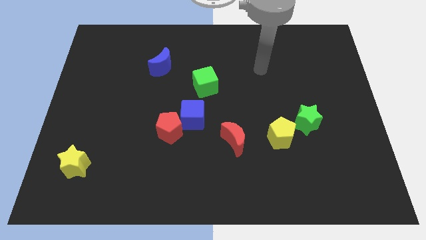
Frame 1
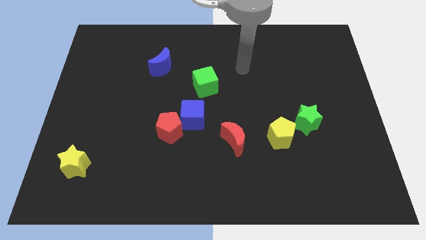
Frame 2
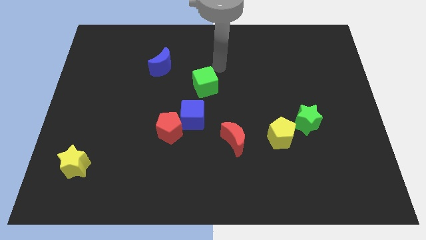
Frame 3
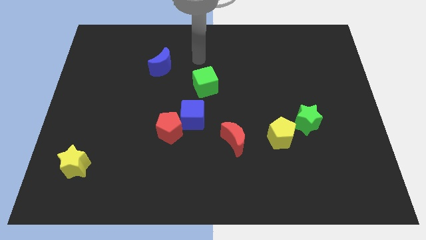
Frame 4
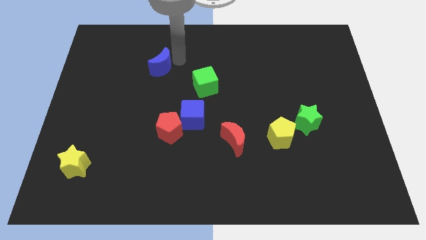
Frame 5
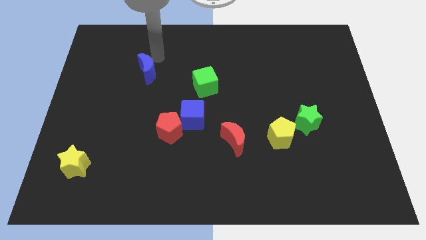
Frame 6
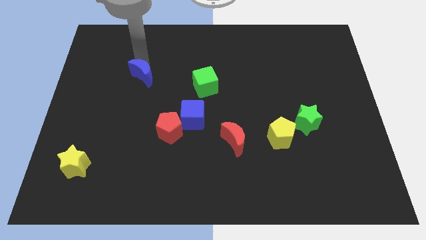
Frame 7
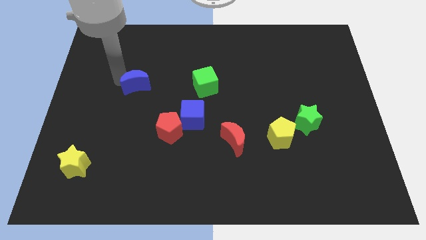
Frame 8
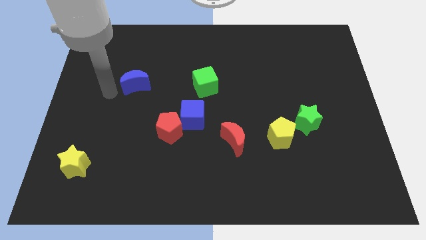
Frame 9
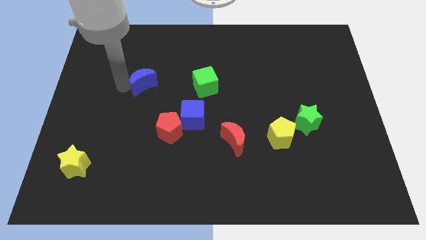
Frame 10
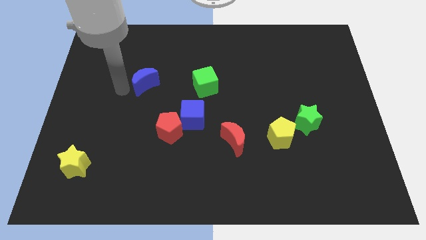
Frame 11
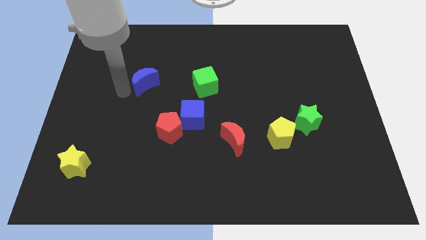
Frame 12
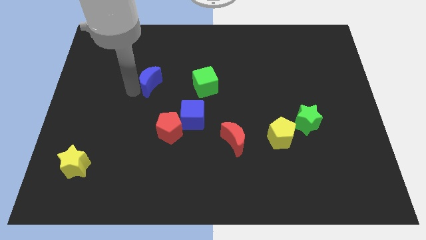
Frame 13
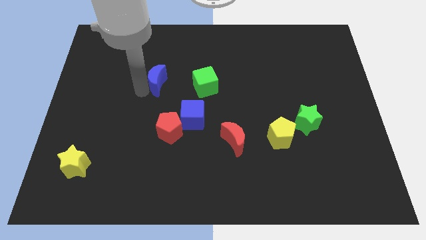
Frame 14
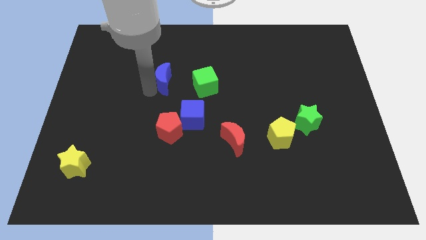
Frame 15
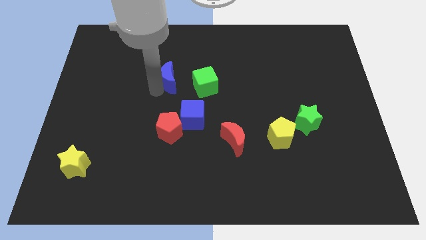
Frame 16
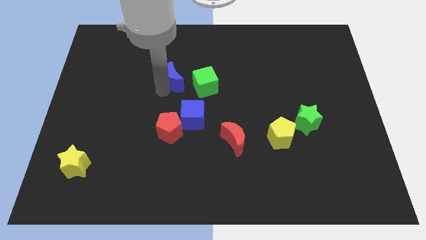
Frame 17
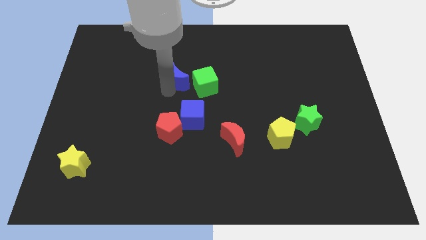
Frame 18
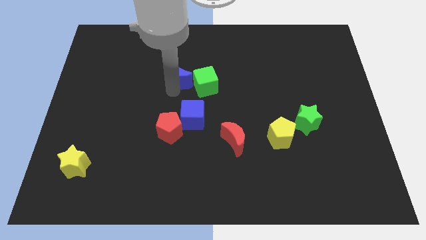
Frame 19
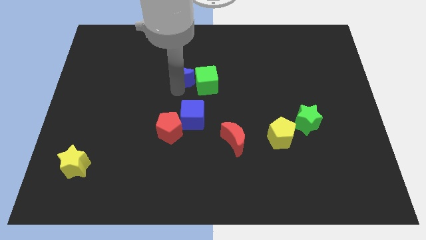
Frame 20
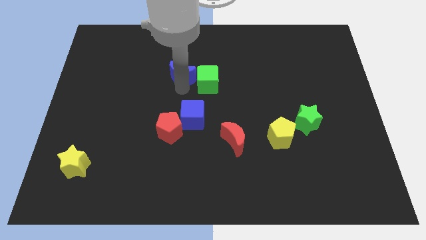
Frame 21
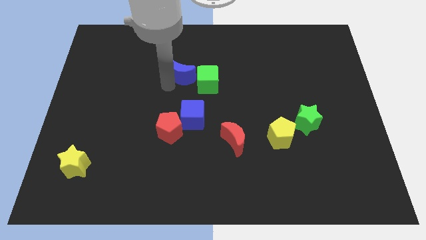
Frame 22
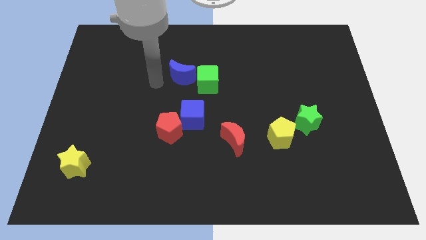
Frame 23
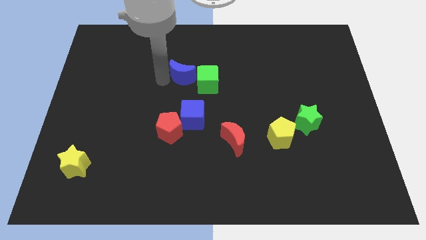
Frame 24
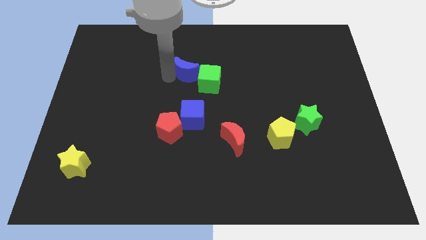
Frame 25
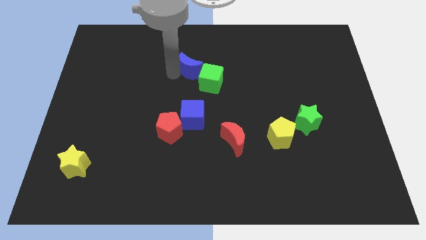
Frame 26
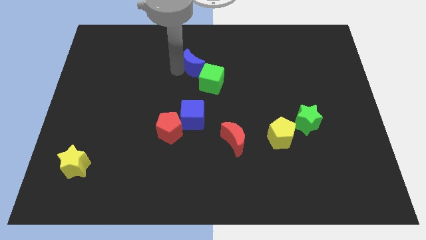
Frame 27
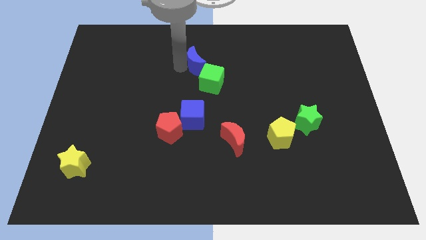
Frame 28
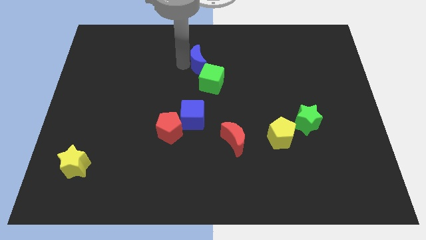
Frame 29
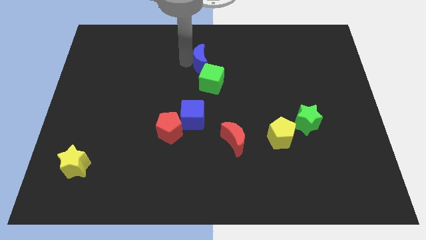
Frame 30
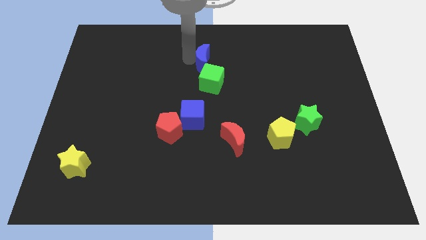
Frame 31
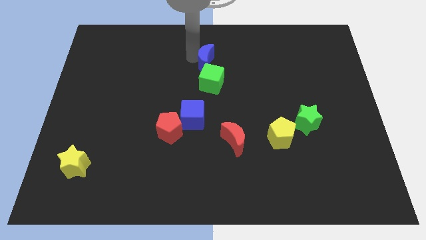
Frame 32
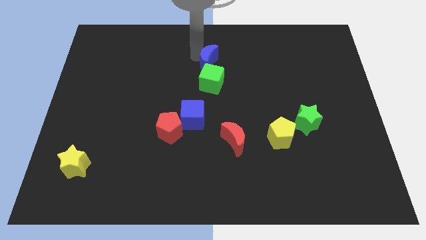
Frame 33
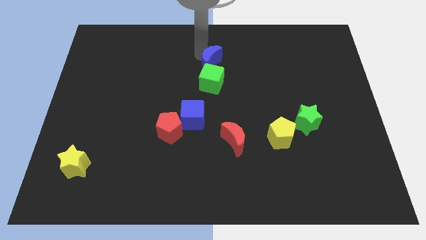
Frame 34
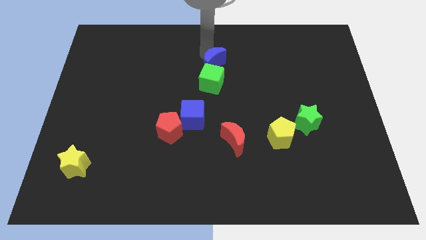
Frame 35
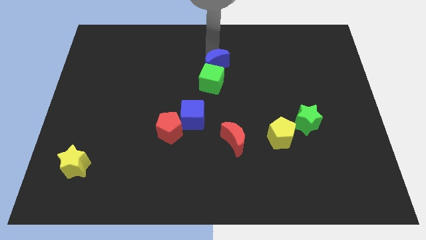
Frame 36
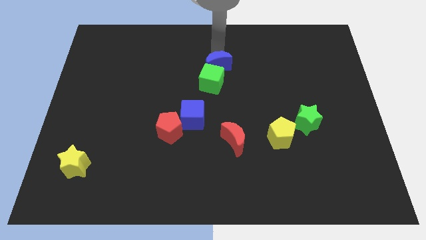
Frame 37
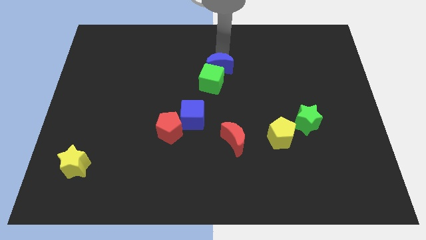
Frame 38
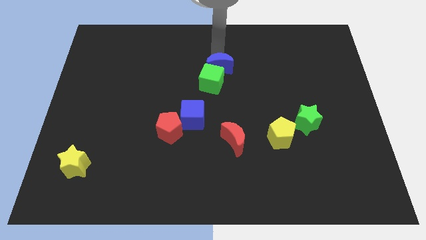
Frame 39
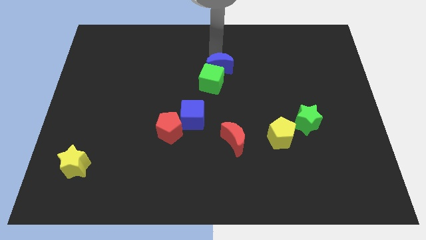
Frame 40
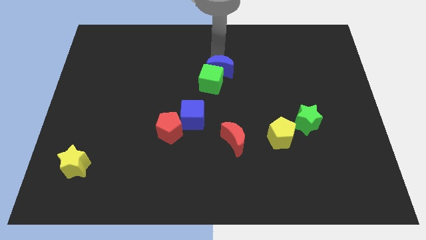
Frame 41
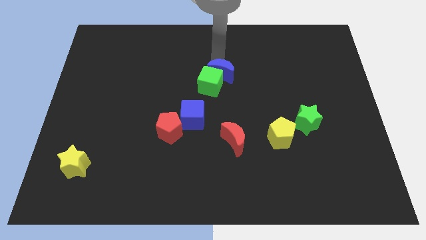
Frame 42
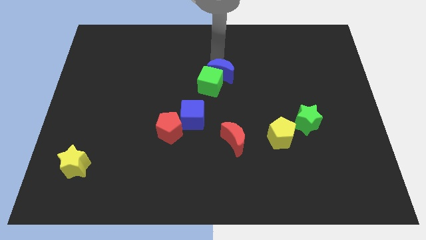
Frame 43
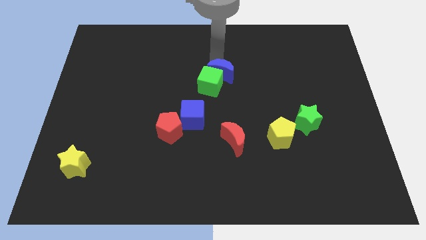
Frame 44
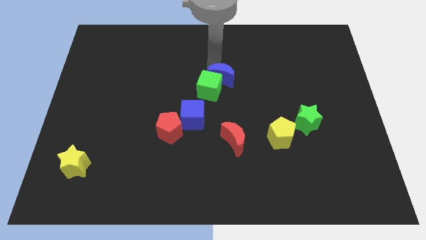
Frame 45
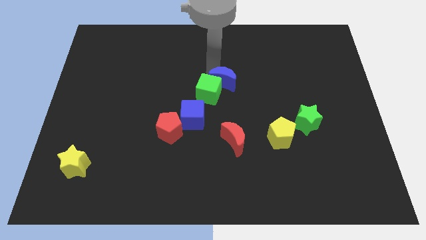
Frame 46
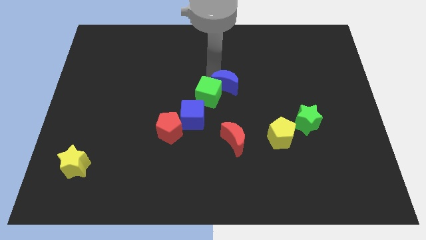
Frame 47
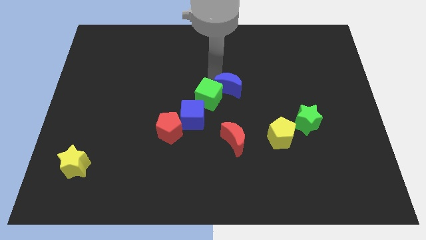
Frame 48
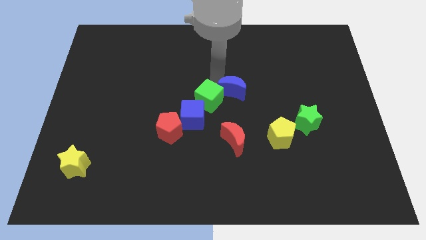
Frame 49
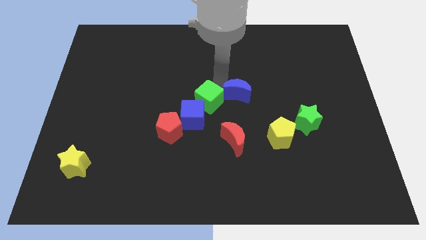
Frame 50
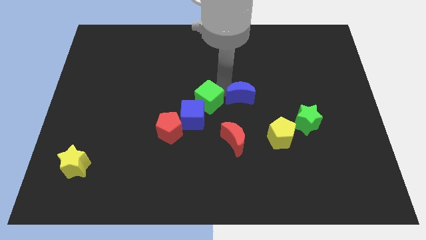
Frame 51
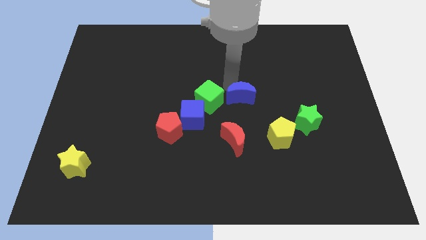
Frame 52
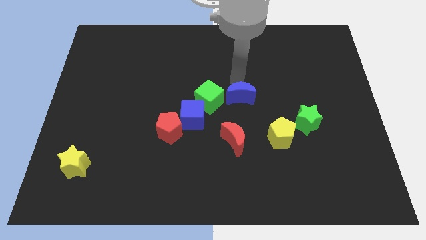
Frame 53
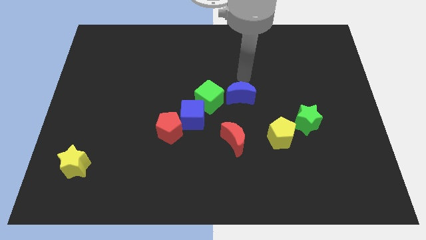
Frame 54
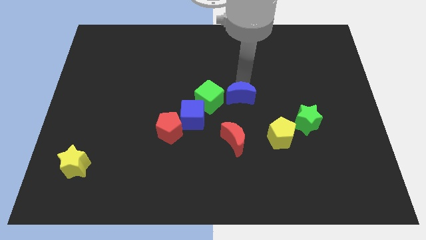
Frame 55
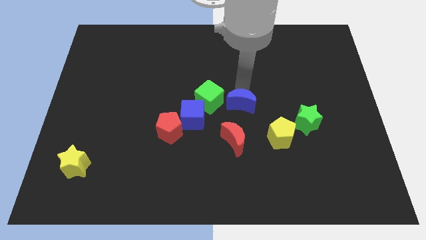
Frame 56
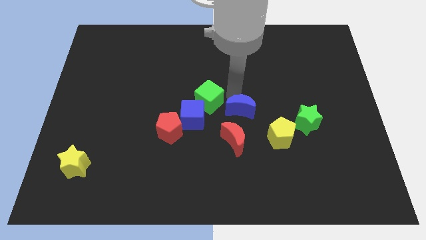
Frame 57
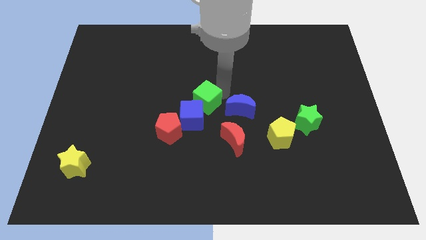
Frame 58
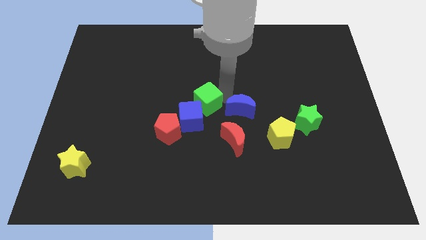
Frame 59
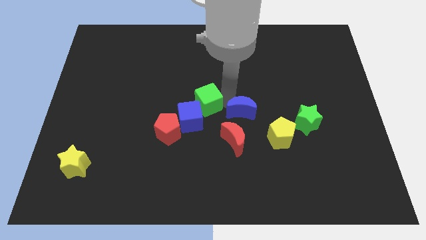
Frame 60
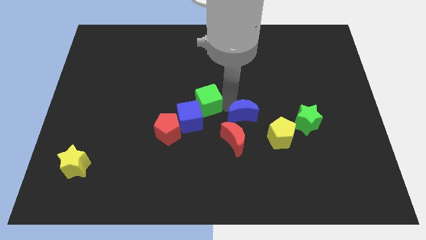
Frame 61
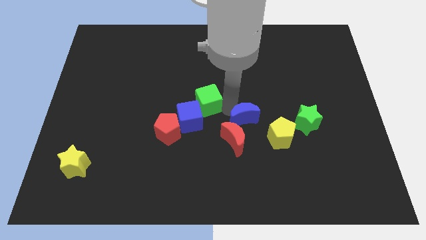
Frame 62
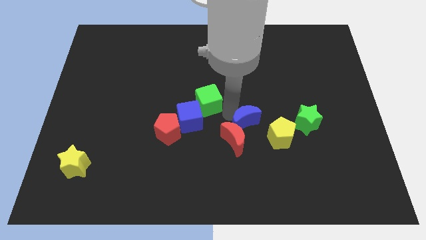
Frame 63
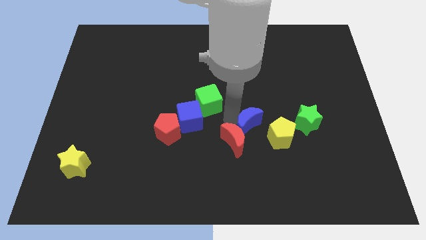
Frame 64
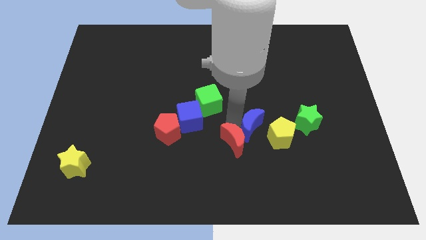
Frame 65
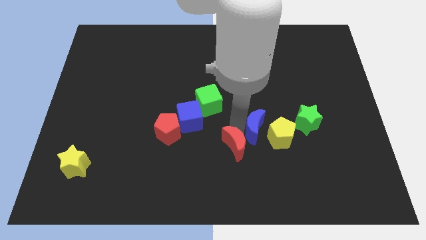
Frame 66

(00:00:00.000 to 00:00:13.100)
move the blue moon to the yellow pentagon
